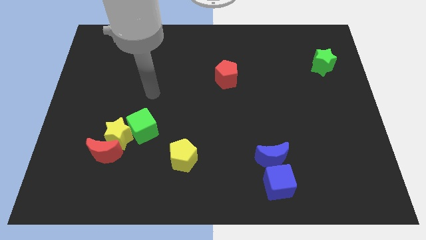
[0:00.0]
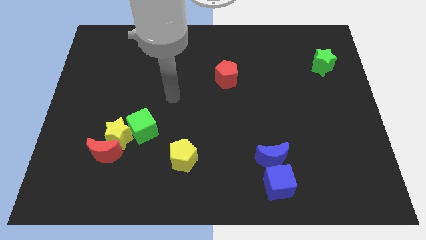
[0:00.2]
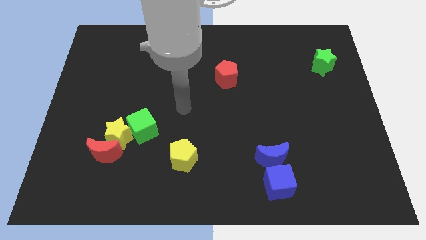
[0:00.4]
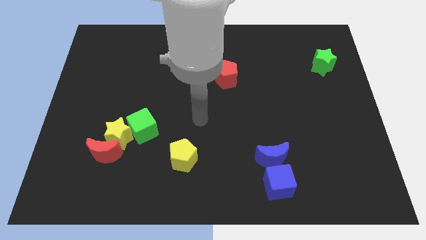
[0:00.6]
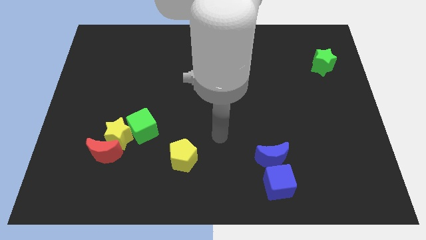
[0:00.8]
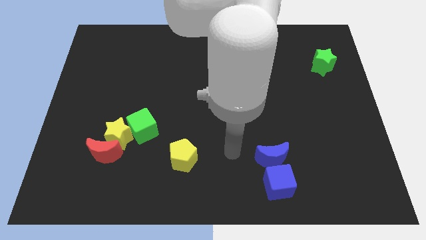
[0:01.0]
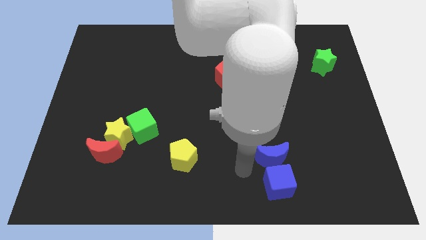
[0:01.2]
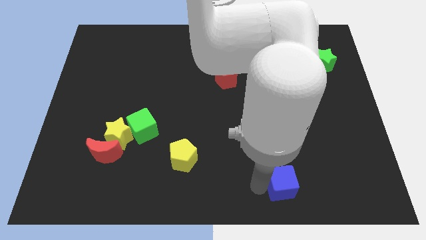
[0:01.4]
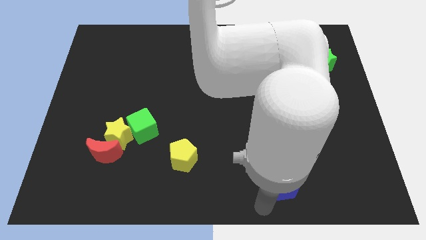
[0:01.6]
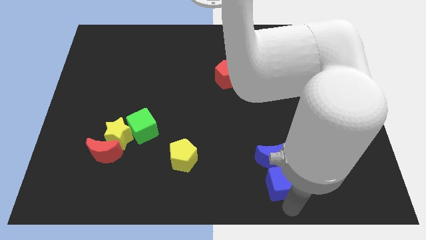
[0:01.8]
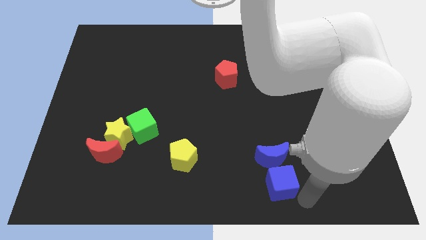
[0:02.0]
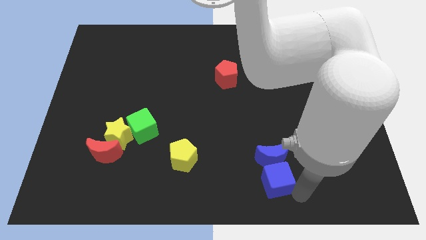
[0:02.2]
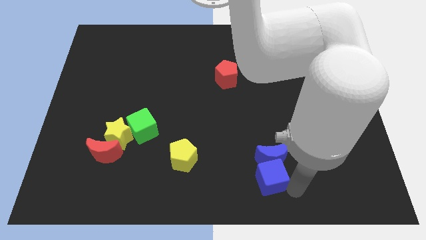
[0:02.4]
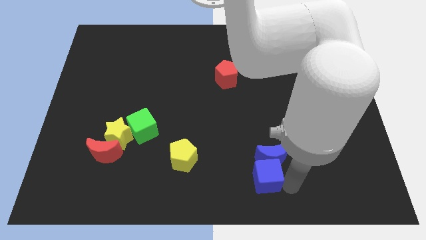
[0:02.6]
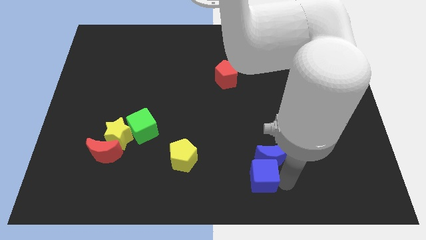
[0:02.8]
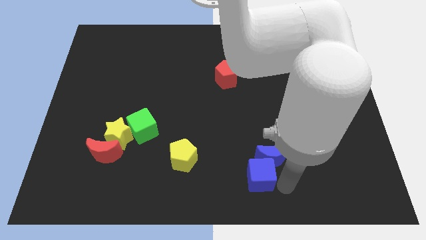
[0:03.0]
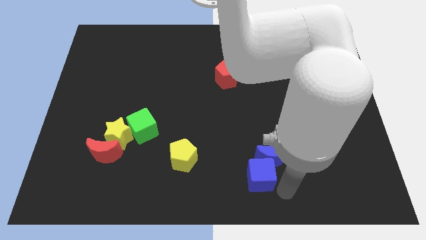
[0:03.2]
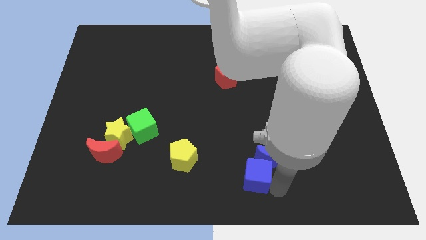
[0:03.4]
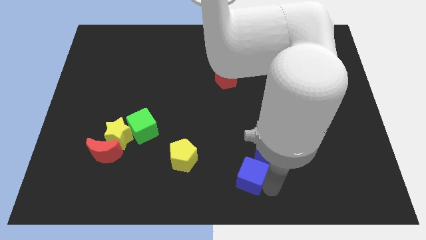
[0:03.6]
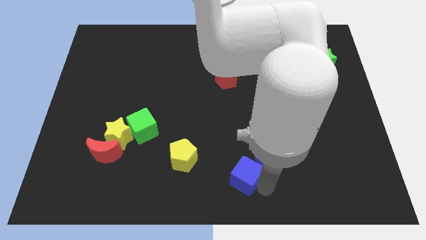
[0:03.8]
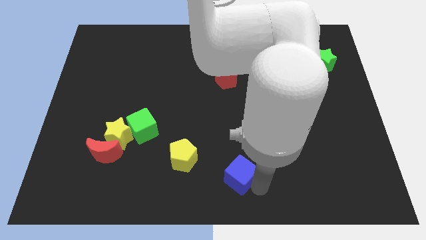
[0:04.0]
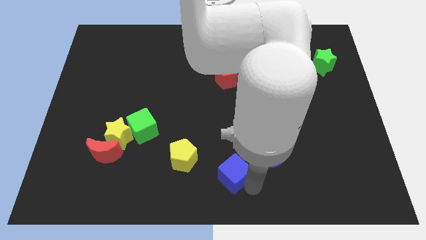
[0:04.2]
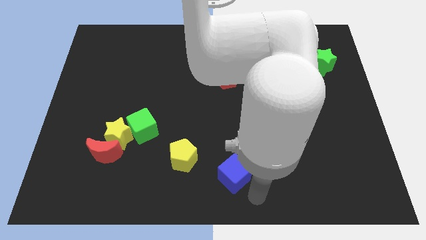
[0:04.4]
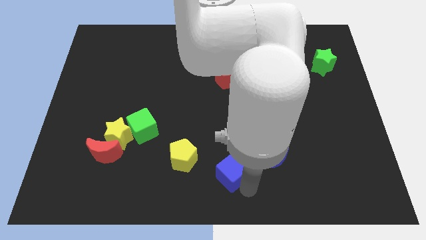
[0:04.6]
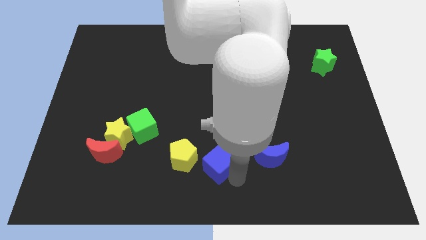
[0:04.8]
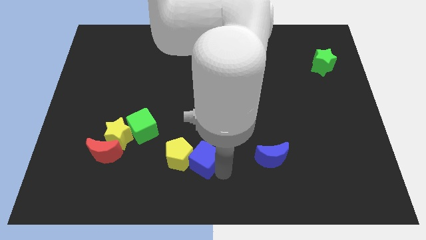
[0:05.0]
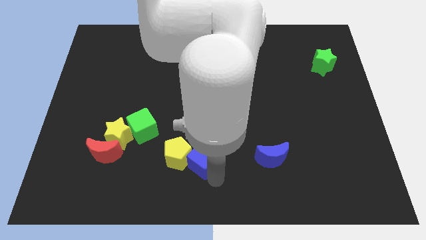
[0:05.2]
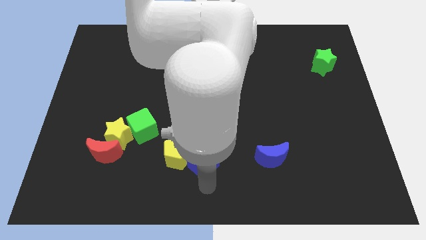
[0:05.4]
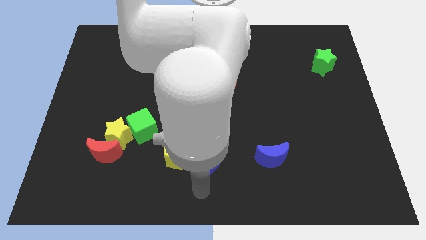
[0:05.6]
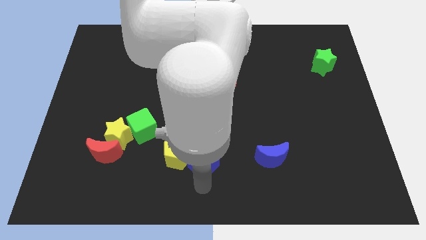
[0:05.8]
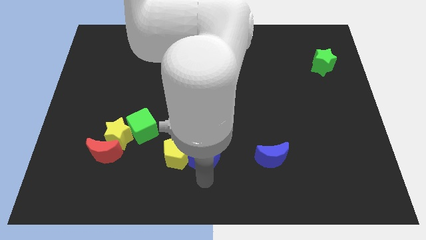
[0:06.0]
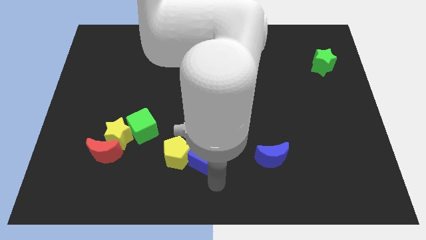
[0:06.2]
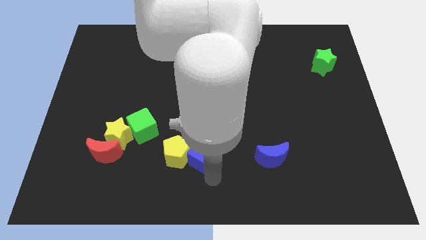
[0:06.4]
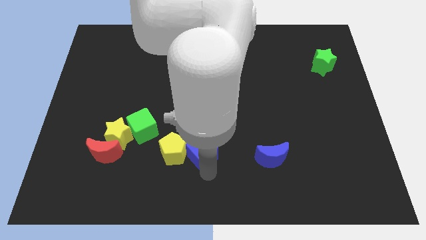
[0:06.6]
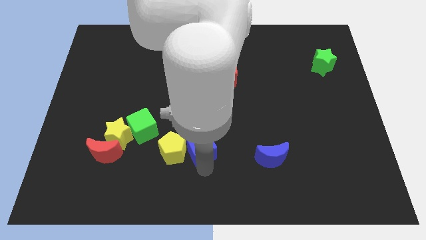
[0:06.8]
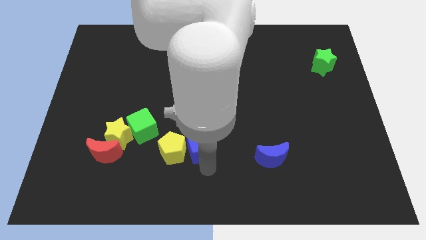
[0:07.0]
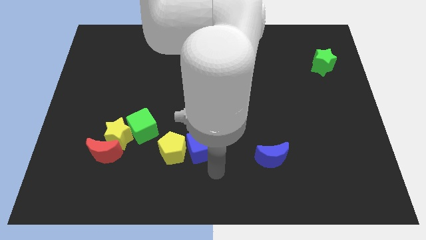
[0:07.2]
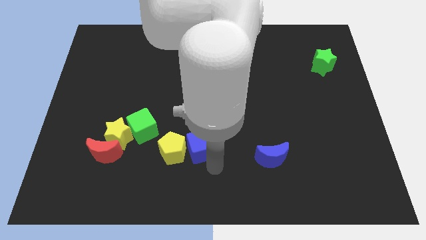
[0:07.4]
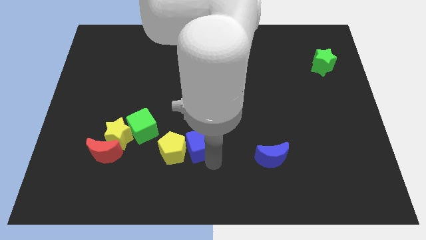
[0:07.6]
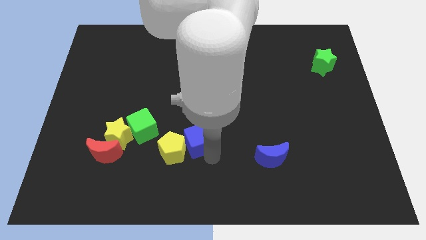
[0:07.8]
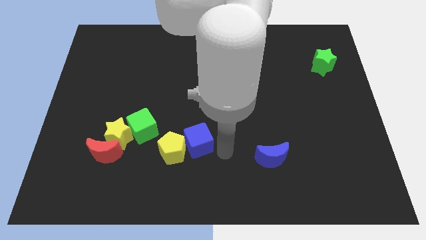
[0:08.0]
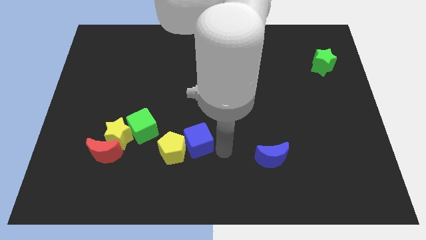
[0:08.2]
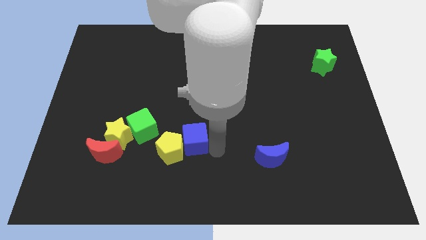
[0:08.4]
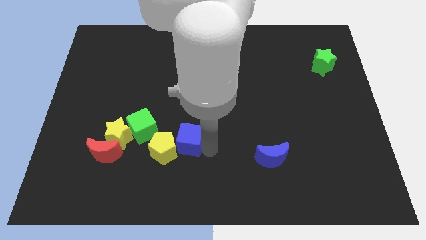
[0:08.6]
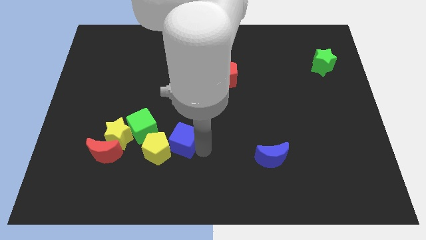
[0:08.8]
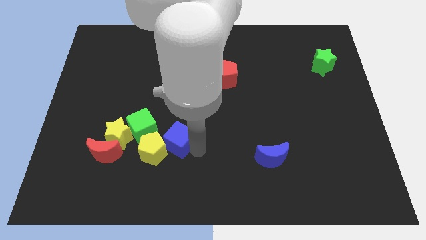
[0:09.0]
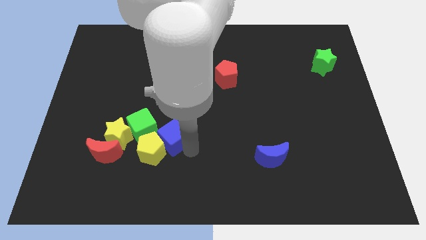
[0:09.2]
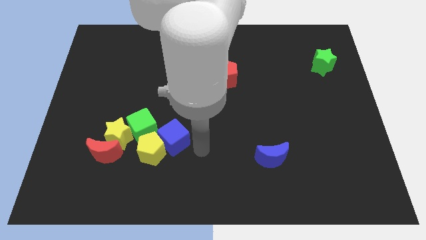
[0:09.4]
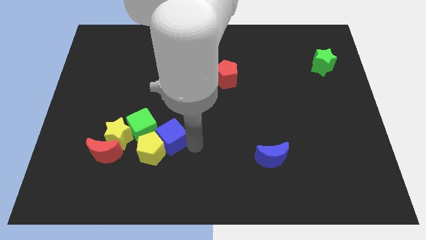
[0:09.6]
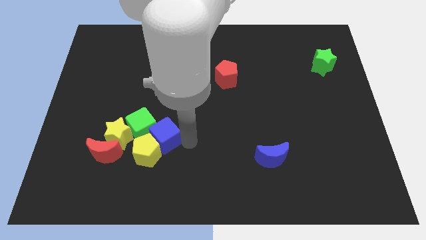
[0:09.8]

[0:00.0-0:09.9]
put the blue cube towards the green cube

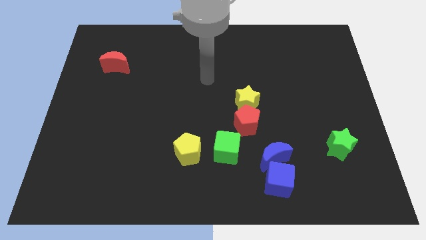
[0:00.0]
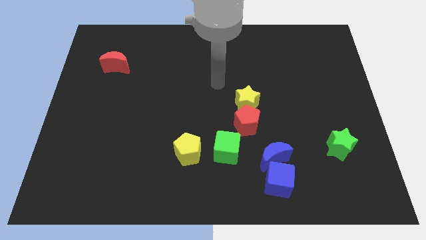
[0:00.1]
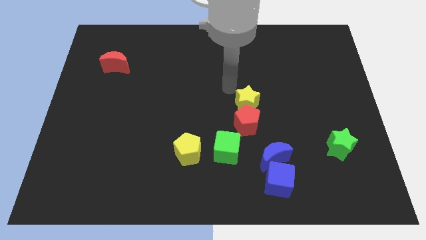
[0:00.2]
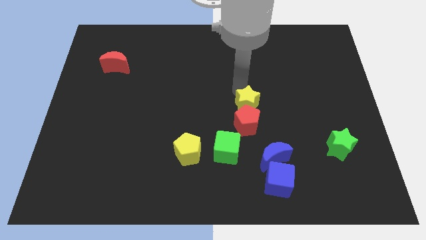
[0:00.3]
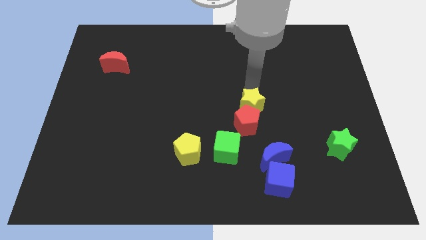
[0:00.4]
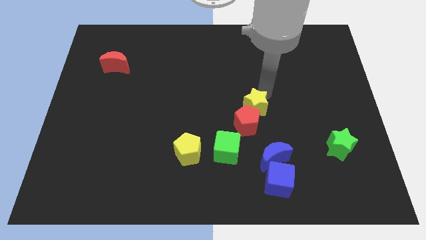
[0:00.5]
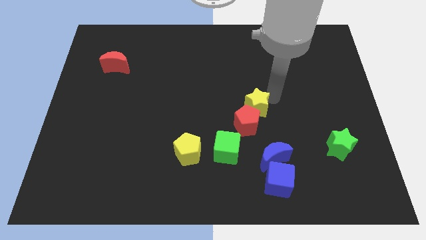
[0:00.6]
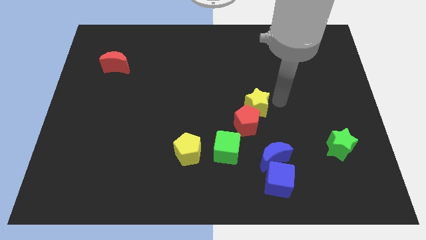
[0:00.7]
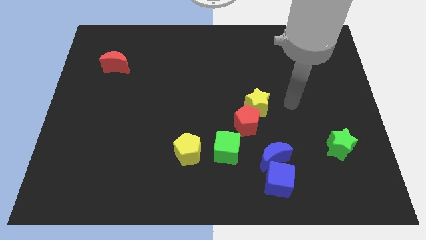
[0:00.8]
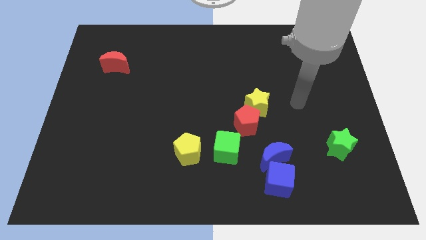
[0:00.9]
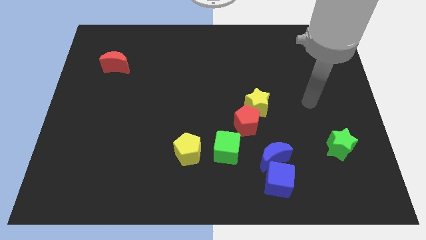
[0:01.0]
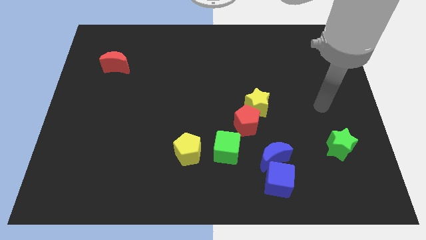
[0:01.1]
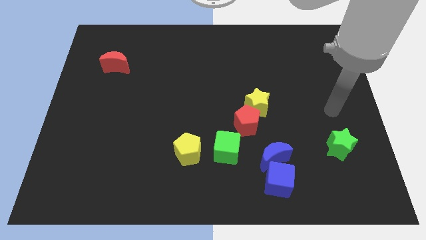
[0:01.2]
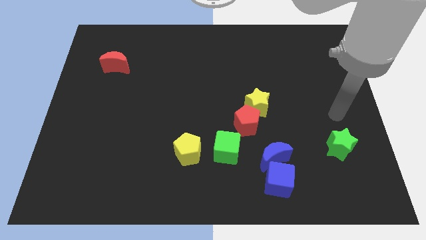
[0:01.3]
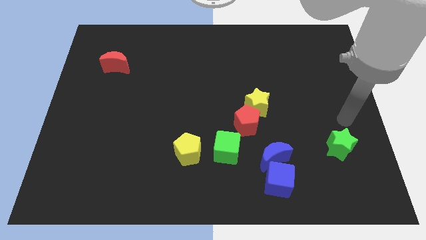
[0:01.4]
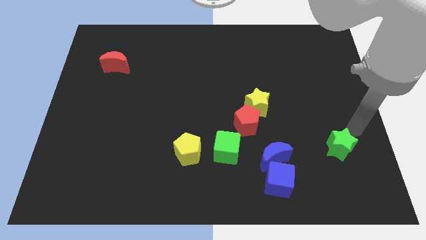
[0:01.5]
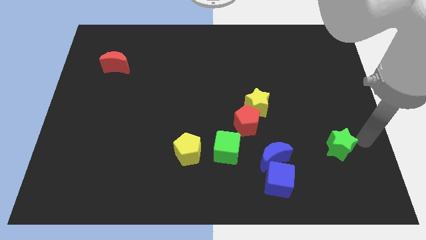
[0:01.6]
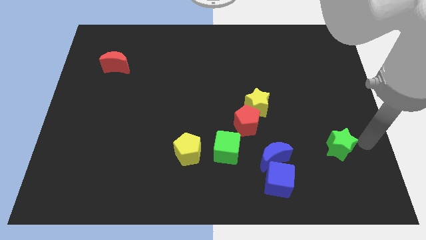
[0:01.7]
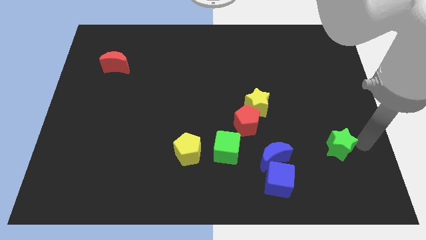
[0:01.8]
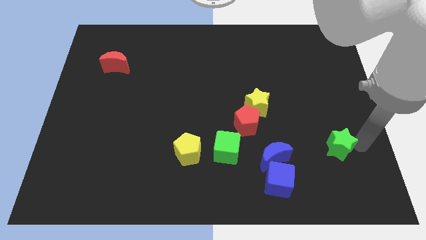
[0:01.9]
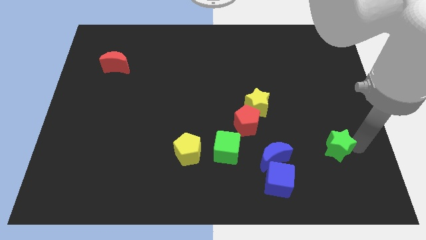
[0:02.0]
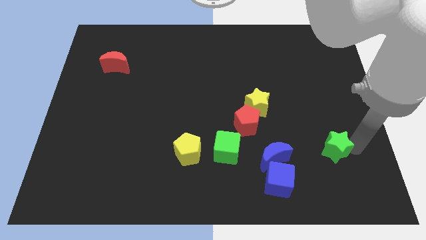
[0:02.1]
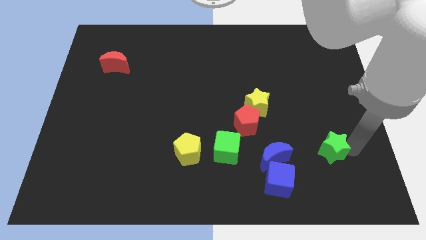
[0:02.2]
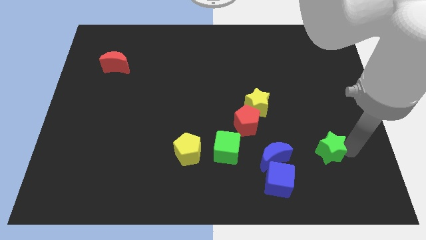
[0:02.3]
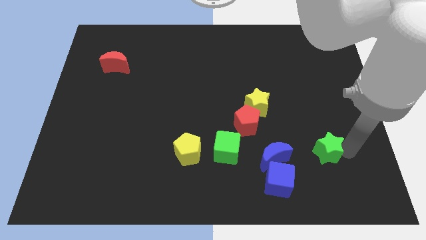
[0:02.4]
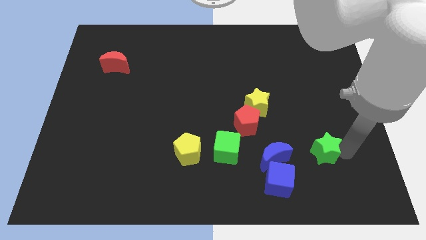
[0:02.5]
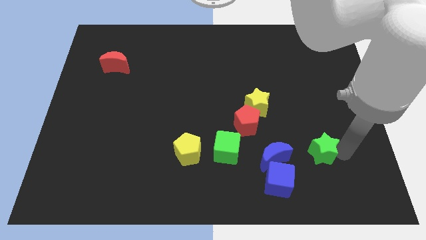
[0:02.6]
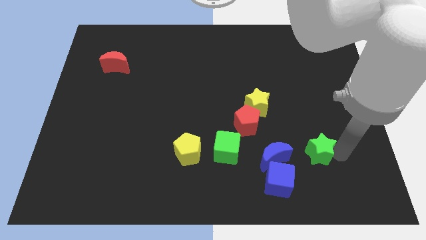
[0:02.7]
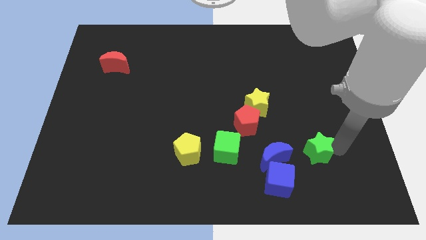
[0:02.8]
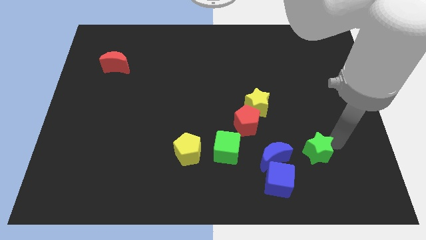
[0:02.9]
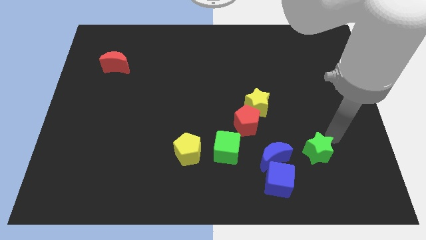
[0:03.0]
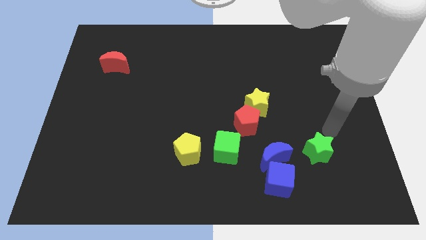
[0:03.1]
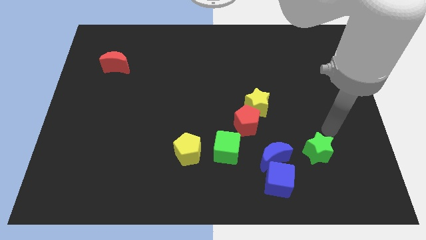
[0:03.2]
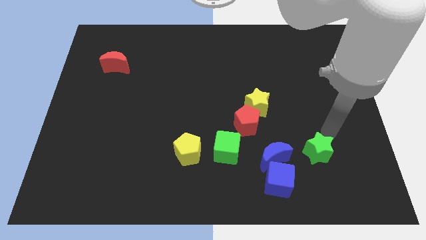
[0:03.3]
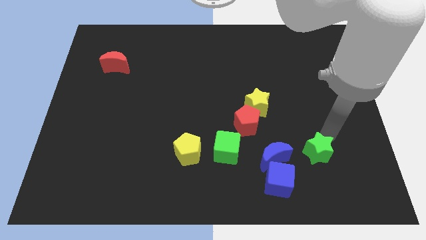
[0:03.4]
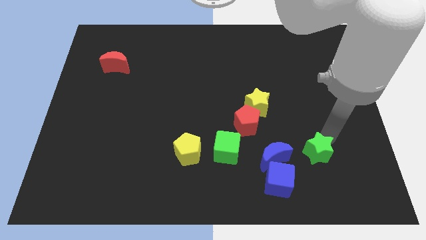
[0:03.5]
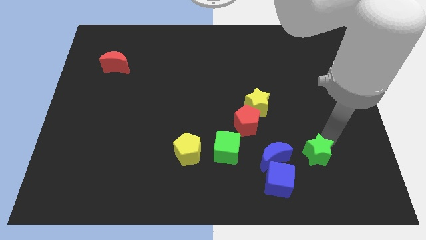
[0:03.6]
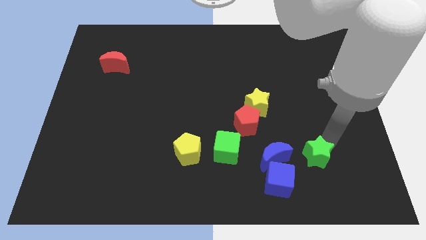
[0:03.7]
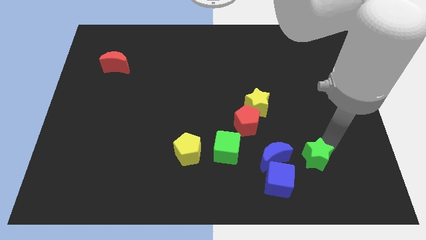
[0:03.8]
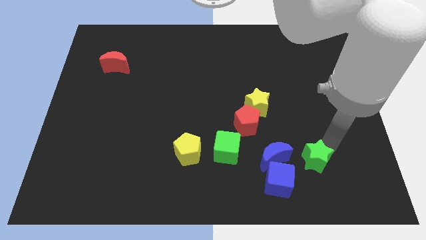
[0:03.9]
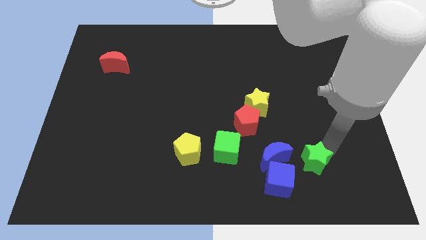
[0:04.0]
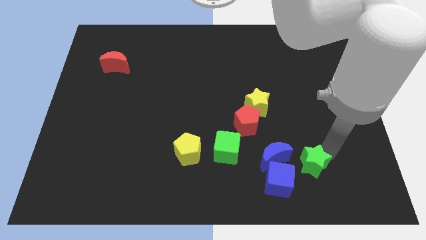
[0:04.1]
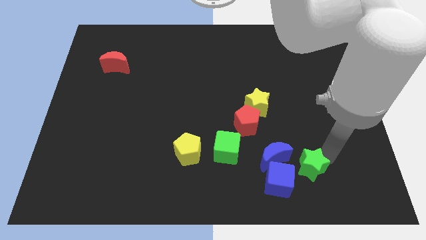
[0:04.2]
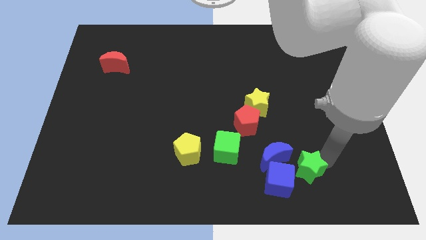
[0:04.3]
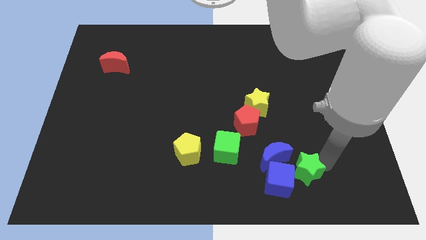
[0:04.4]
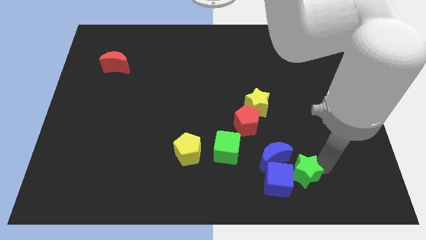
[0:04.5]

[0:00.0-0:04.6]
put the green star next to the blue cube
